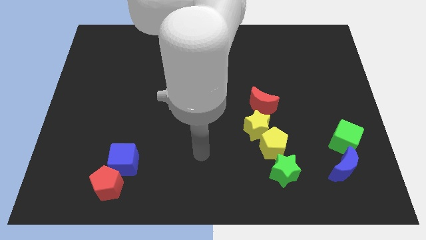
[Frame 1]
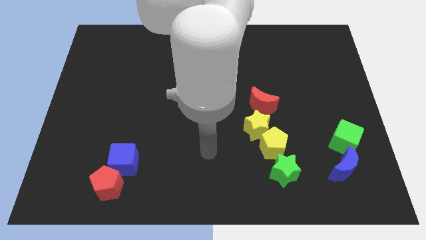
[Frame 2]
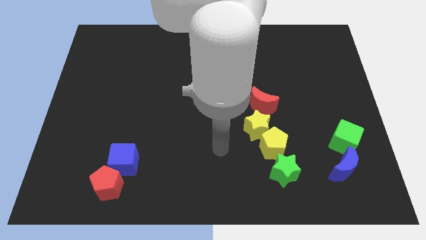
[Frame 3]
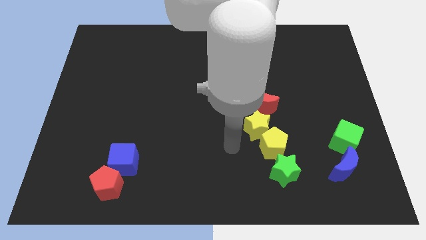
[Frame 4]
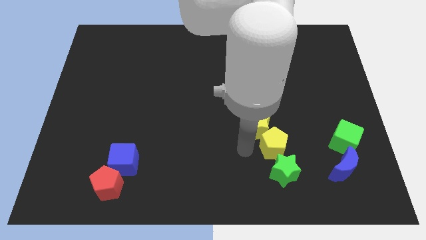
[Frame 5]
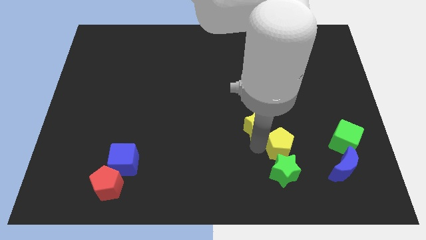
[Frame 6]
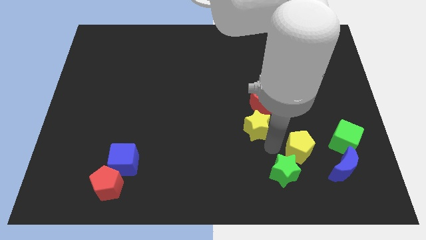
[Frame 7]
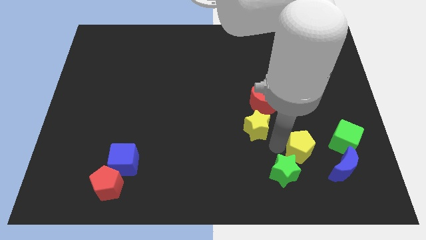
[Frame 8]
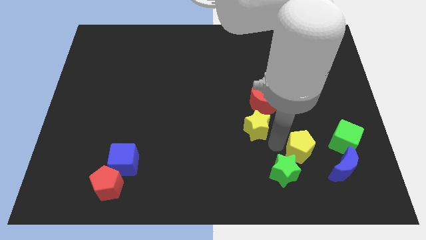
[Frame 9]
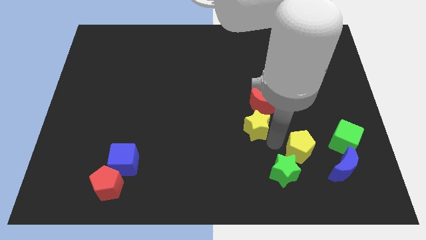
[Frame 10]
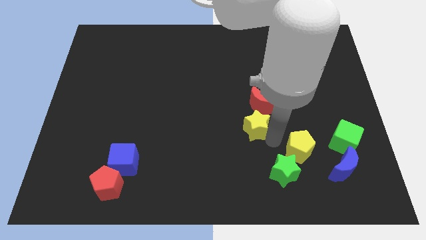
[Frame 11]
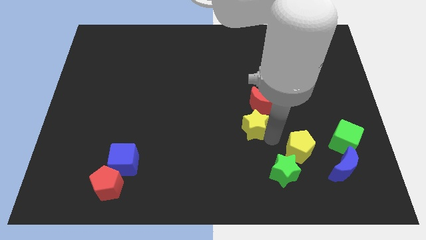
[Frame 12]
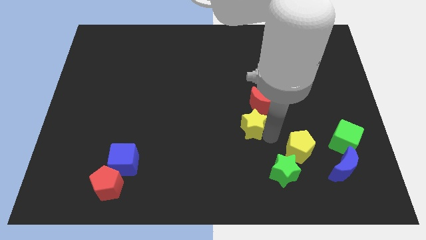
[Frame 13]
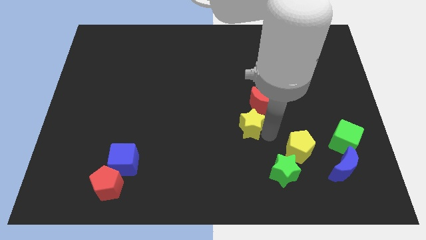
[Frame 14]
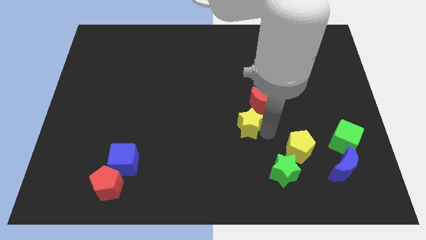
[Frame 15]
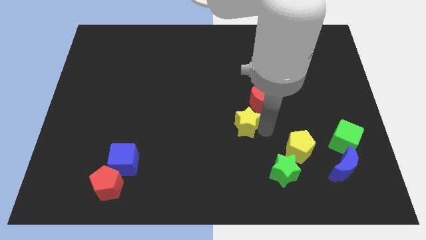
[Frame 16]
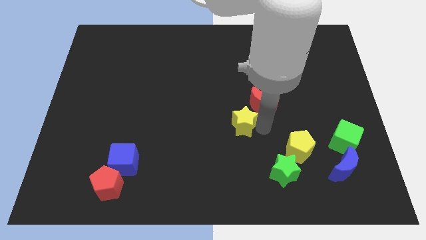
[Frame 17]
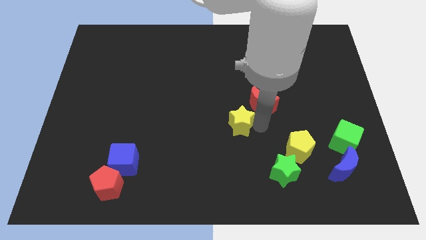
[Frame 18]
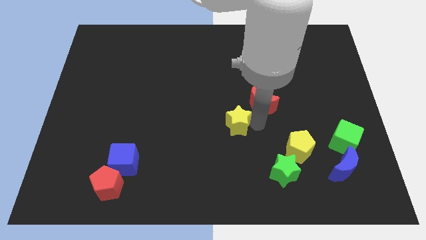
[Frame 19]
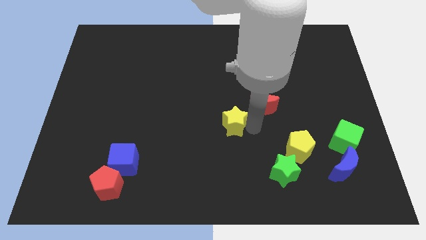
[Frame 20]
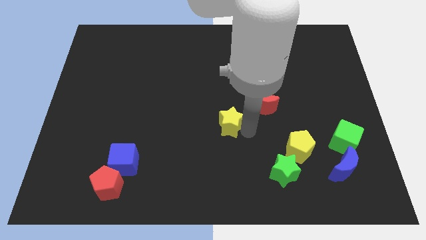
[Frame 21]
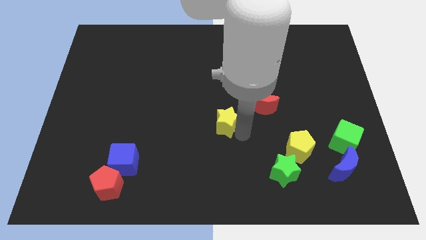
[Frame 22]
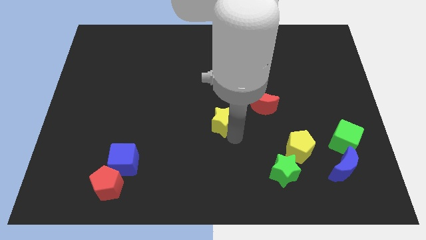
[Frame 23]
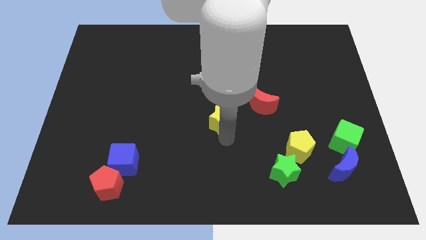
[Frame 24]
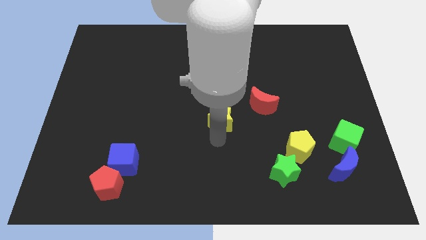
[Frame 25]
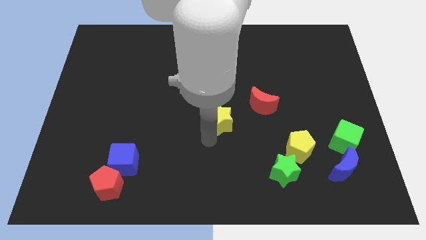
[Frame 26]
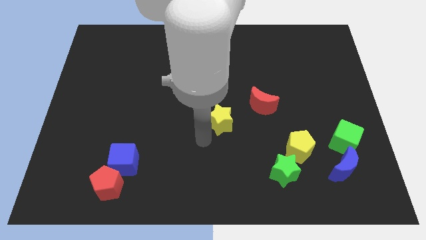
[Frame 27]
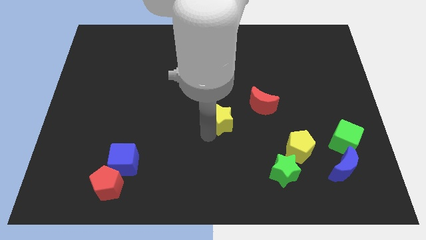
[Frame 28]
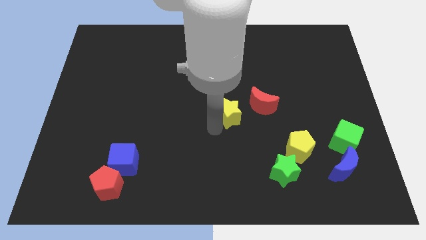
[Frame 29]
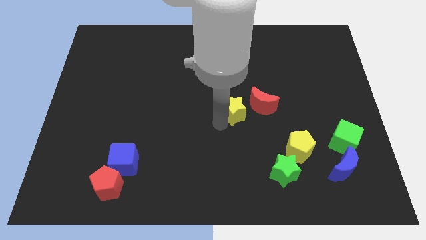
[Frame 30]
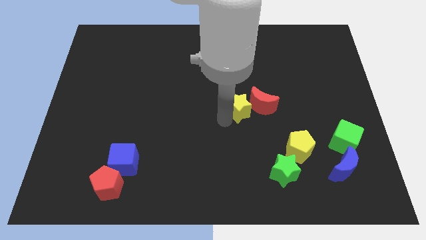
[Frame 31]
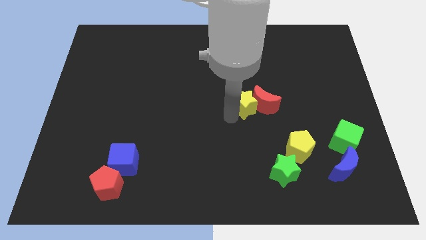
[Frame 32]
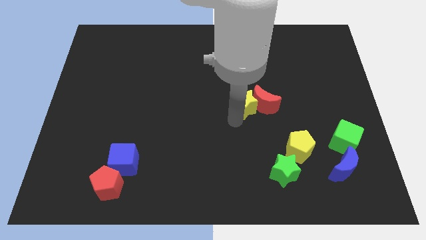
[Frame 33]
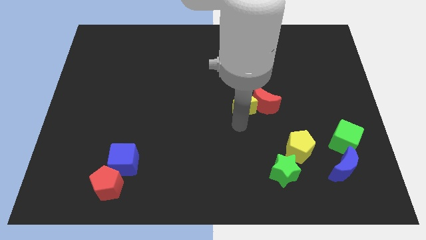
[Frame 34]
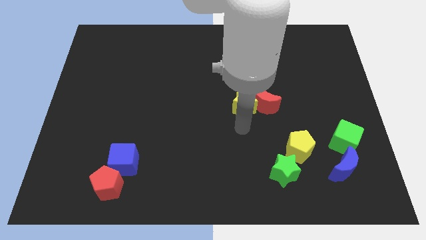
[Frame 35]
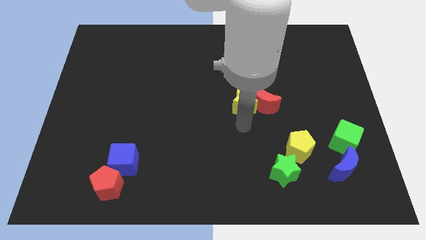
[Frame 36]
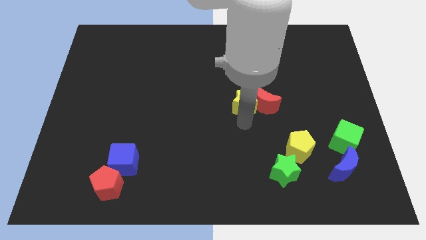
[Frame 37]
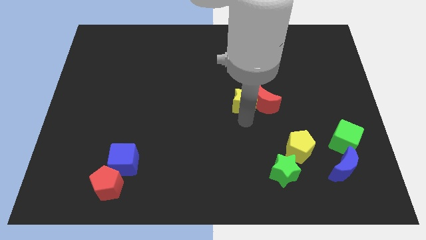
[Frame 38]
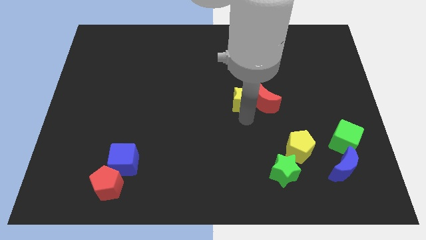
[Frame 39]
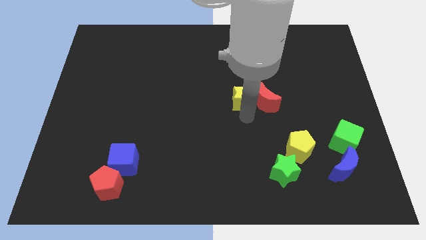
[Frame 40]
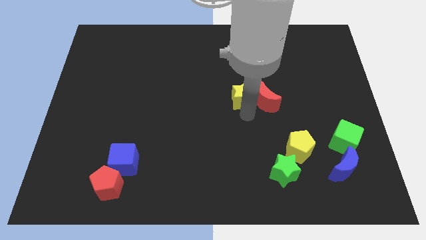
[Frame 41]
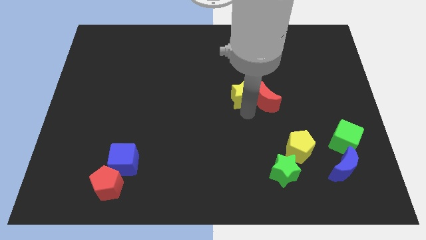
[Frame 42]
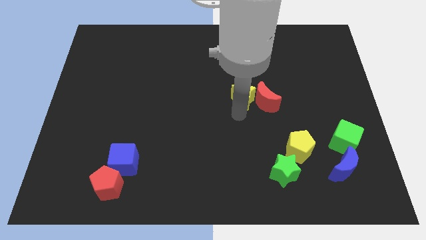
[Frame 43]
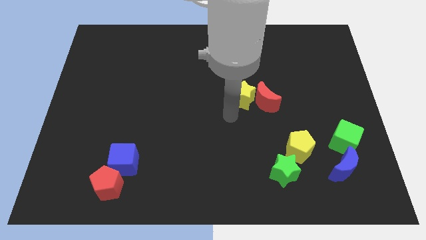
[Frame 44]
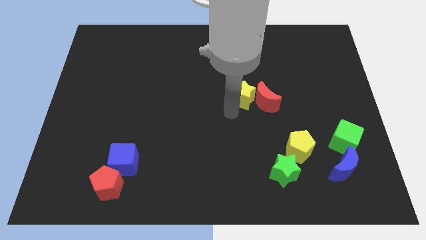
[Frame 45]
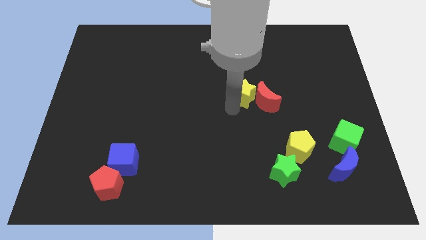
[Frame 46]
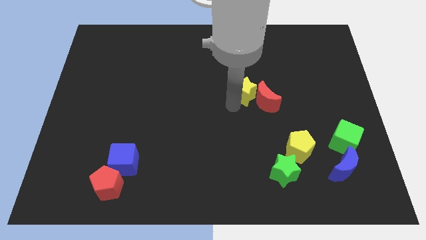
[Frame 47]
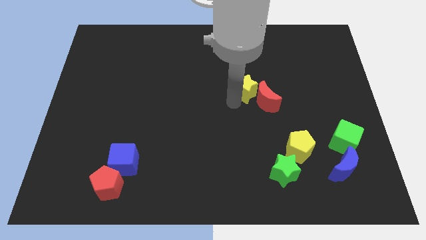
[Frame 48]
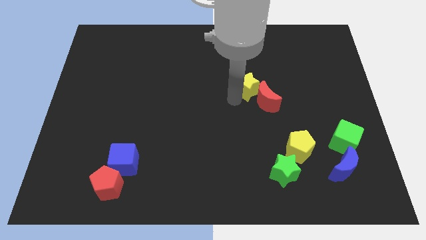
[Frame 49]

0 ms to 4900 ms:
put the yellow star to the top side of the red moon

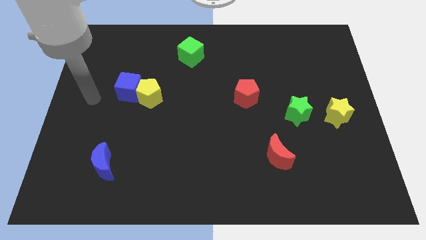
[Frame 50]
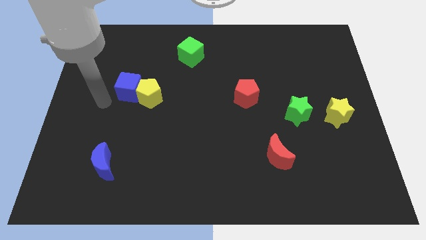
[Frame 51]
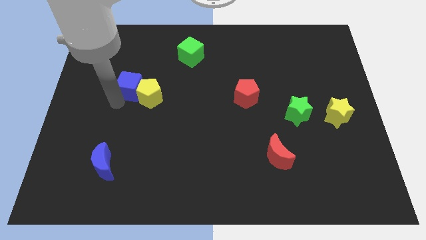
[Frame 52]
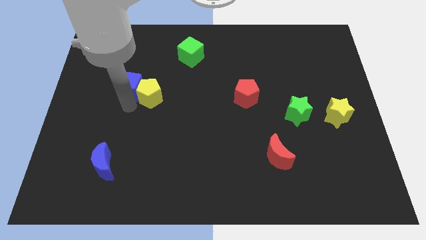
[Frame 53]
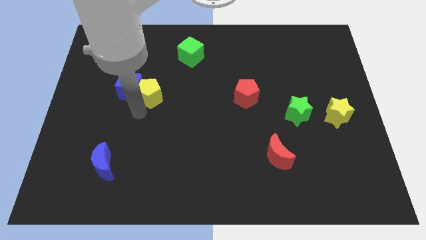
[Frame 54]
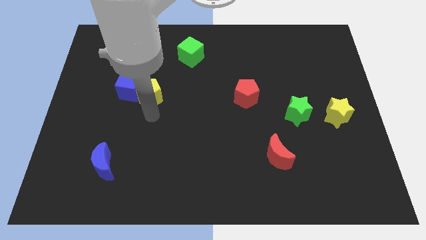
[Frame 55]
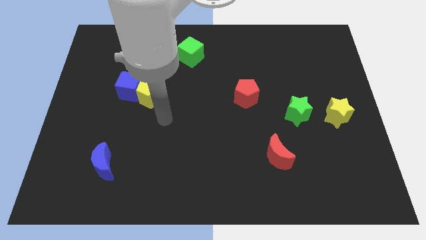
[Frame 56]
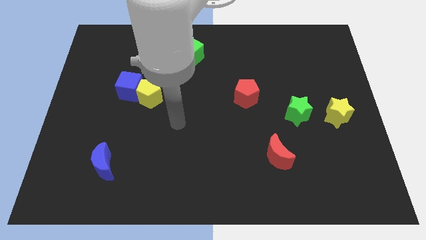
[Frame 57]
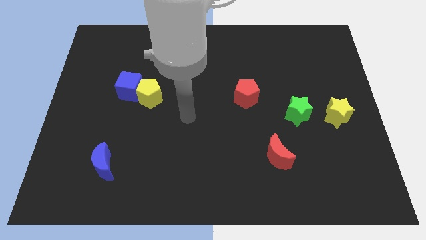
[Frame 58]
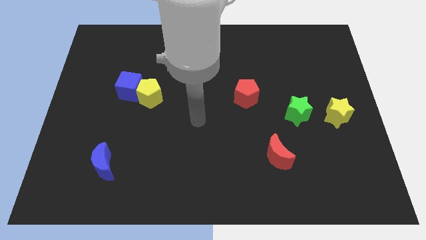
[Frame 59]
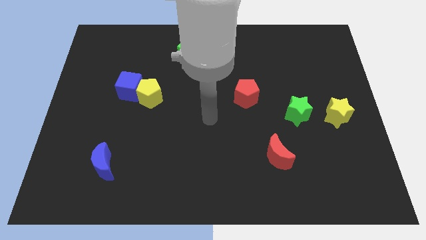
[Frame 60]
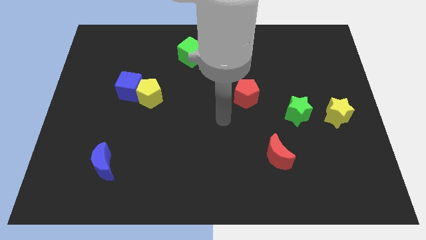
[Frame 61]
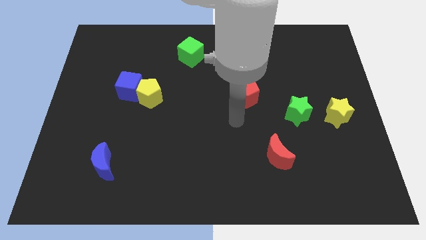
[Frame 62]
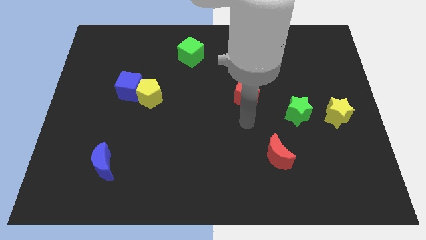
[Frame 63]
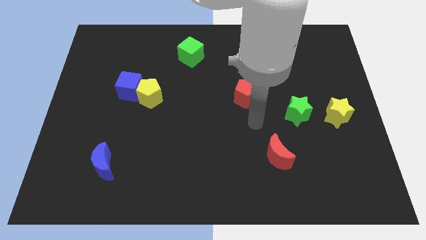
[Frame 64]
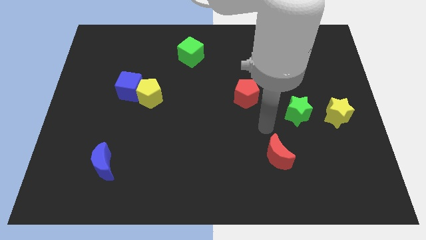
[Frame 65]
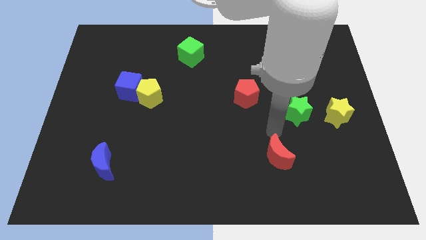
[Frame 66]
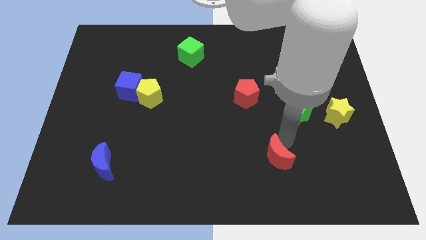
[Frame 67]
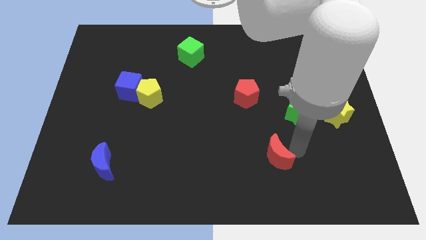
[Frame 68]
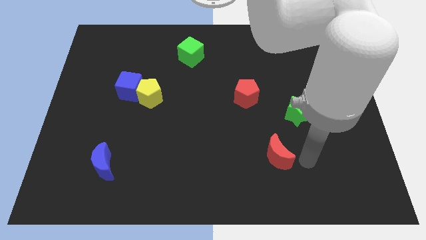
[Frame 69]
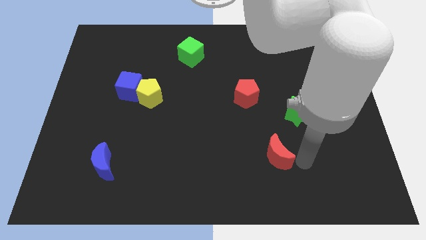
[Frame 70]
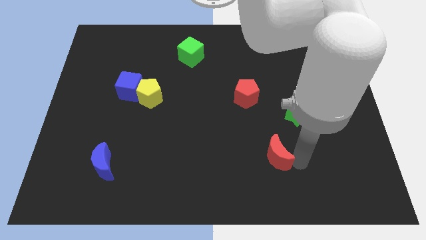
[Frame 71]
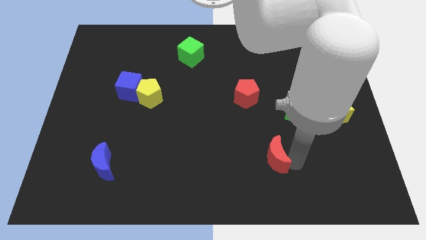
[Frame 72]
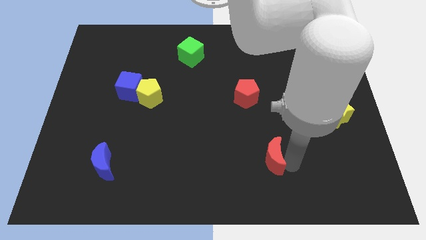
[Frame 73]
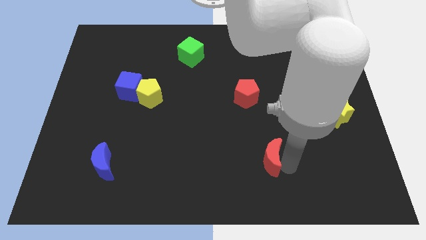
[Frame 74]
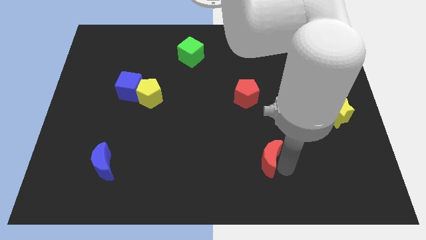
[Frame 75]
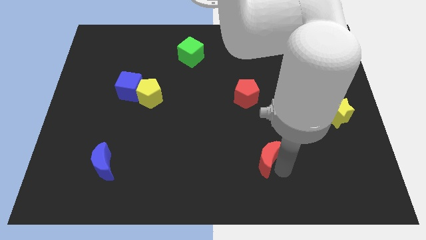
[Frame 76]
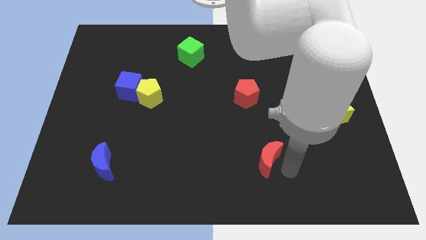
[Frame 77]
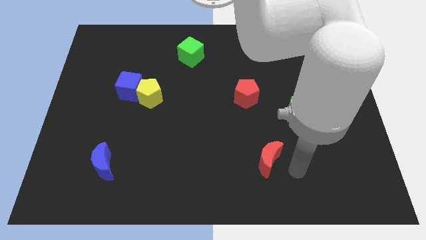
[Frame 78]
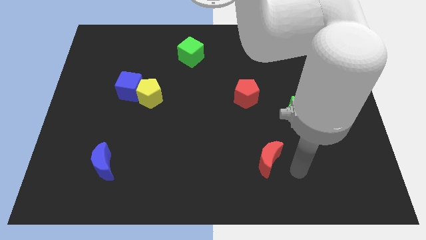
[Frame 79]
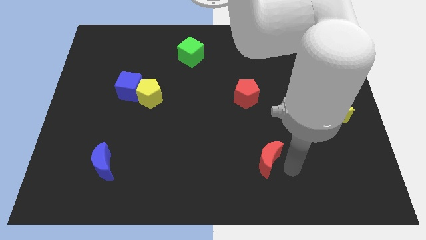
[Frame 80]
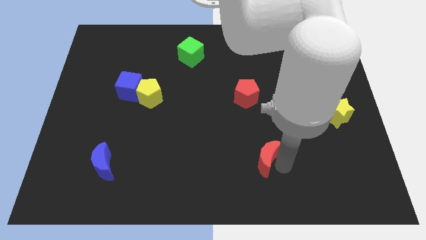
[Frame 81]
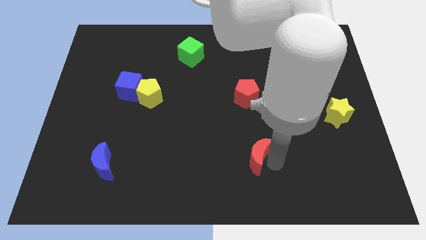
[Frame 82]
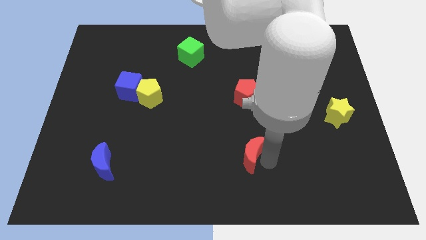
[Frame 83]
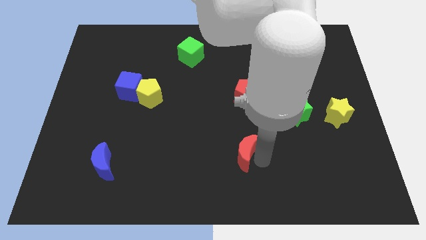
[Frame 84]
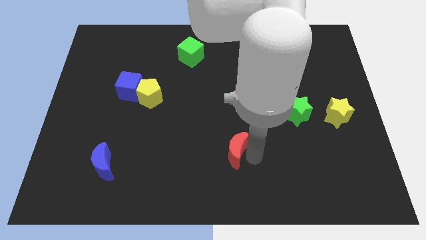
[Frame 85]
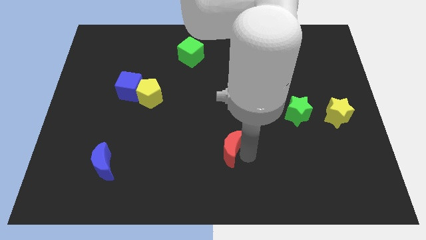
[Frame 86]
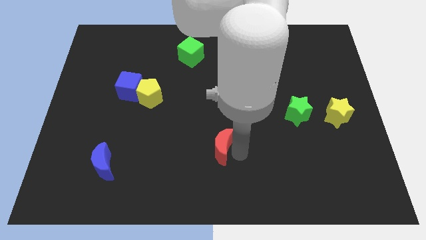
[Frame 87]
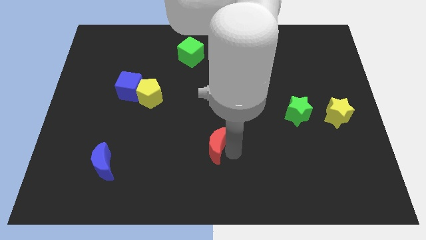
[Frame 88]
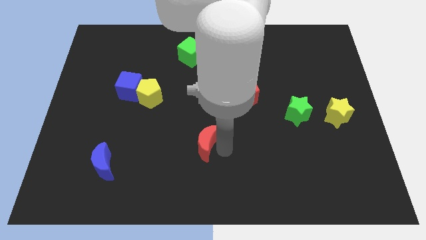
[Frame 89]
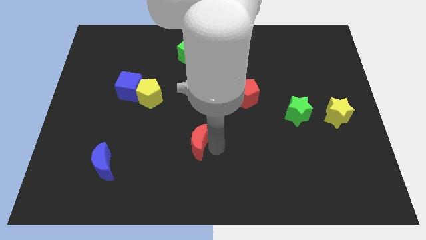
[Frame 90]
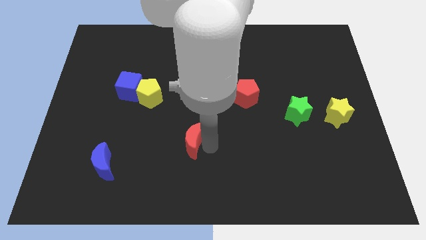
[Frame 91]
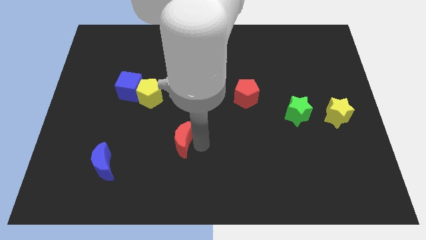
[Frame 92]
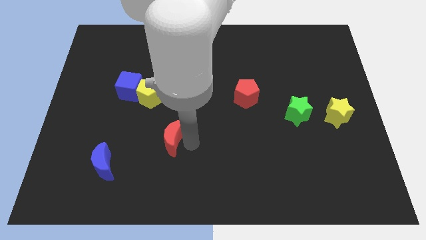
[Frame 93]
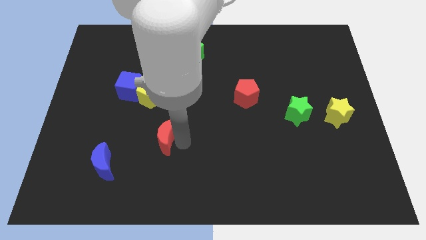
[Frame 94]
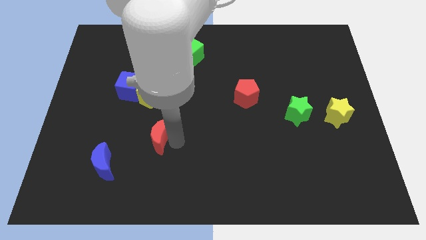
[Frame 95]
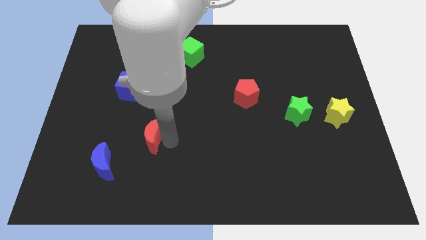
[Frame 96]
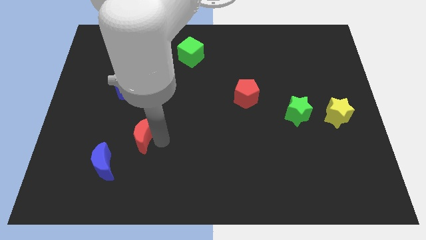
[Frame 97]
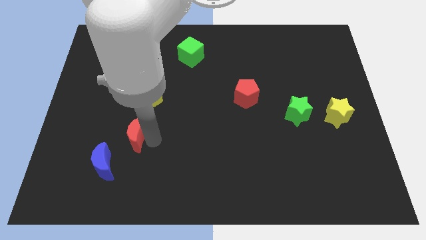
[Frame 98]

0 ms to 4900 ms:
slide the red moon to the bottom side of the blue cube
